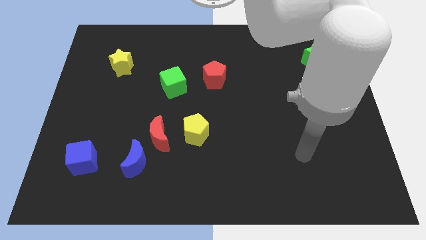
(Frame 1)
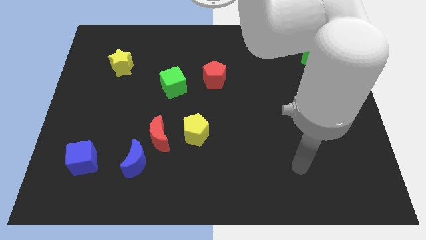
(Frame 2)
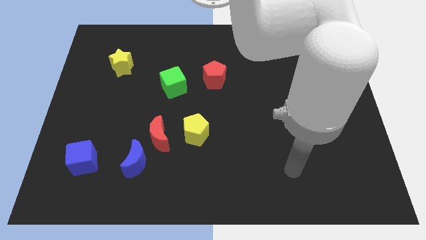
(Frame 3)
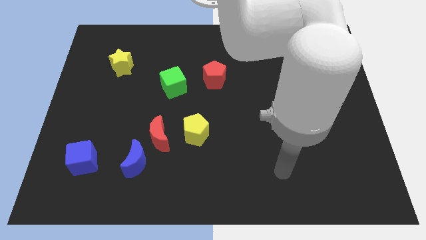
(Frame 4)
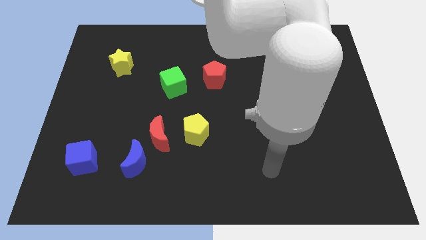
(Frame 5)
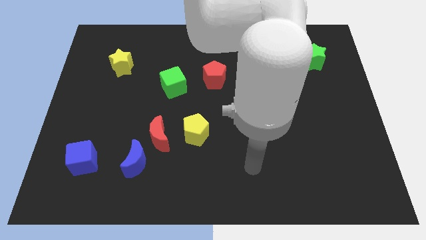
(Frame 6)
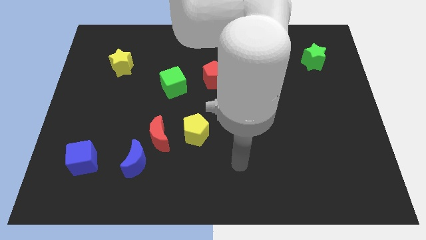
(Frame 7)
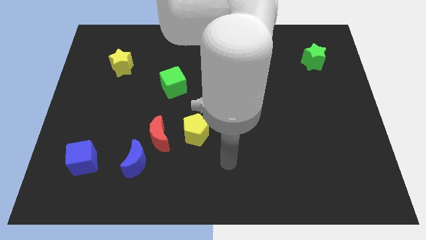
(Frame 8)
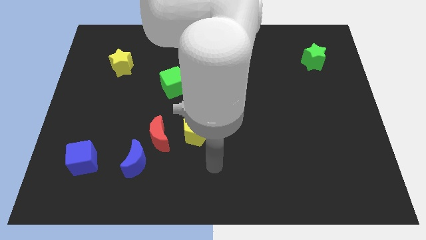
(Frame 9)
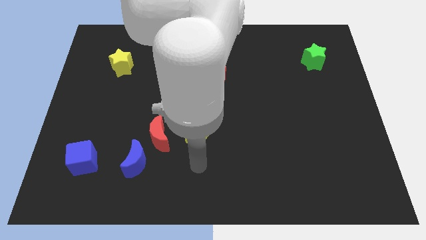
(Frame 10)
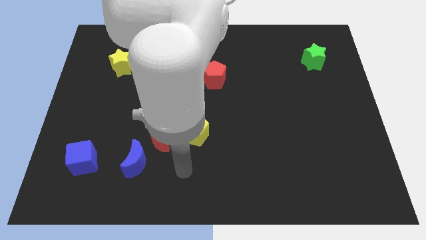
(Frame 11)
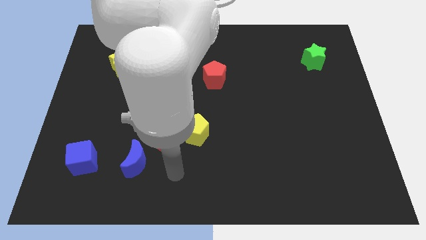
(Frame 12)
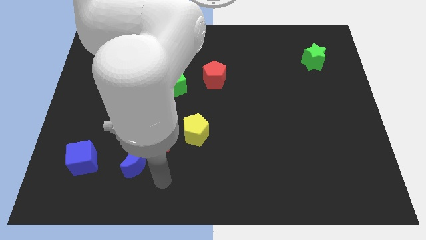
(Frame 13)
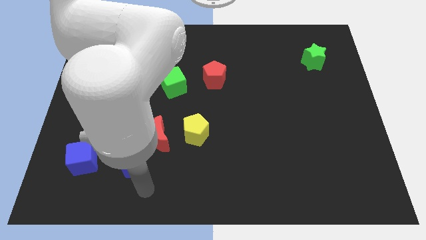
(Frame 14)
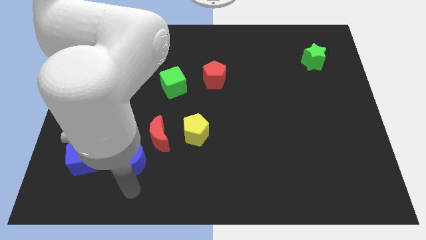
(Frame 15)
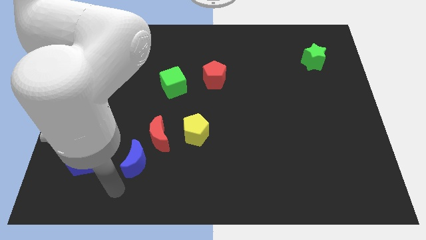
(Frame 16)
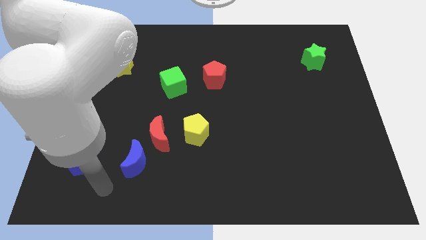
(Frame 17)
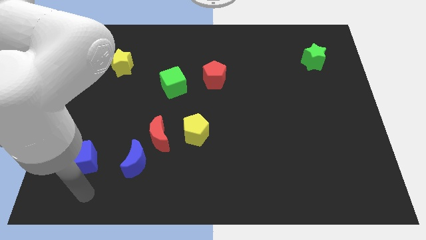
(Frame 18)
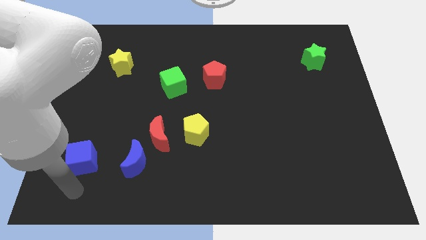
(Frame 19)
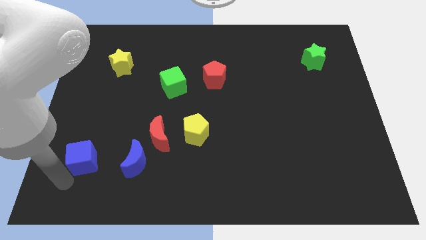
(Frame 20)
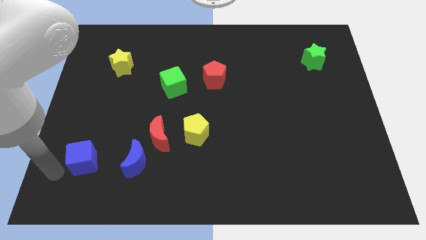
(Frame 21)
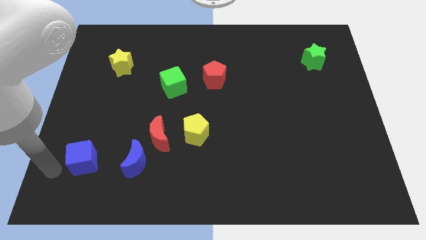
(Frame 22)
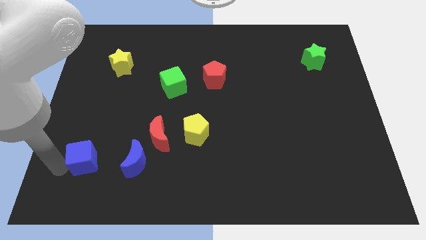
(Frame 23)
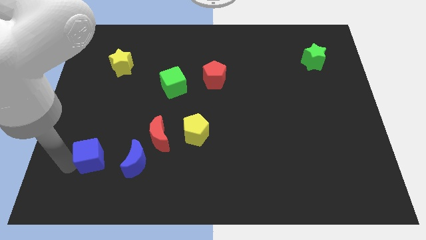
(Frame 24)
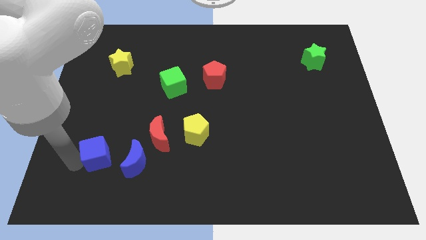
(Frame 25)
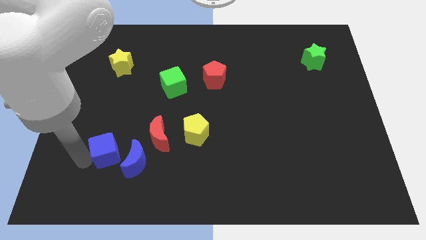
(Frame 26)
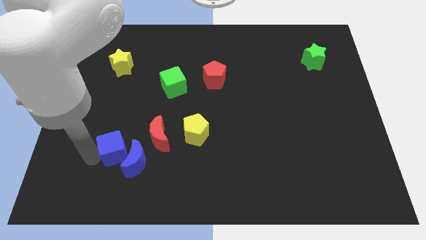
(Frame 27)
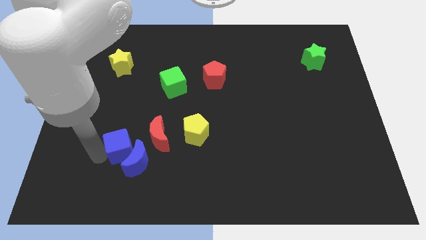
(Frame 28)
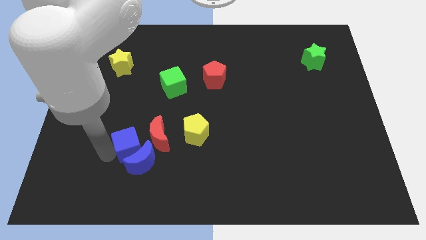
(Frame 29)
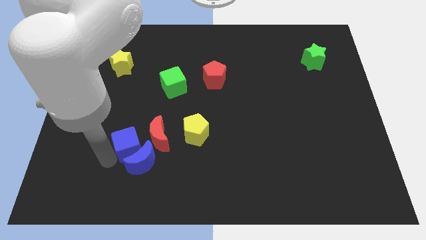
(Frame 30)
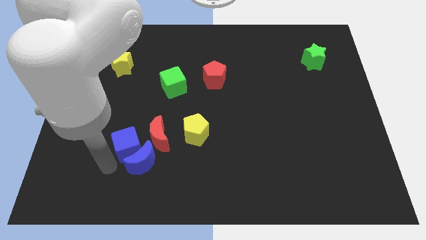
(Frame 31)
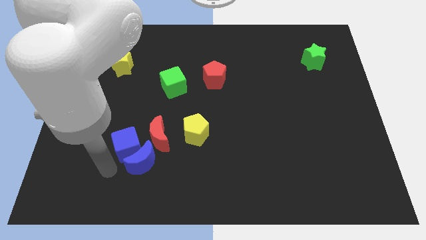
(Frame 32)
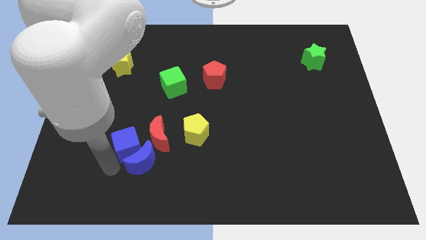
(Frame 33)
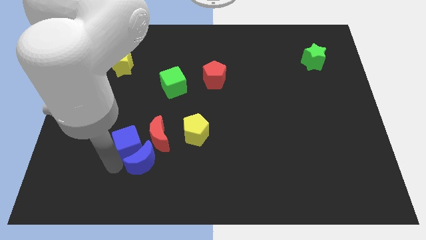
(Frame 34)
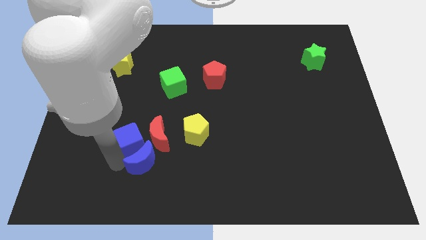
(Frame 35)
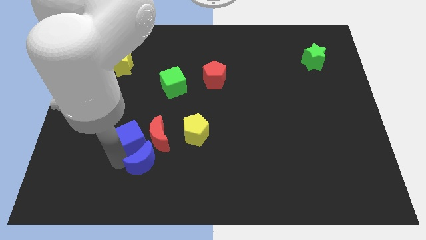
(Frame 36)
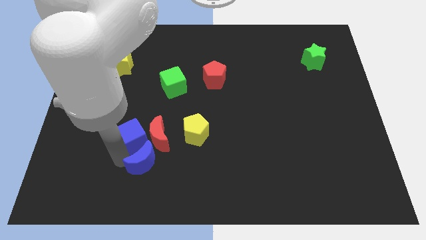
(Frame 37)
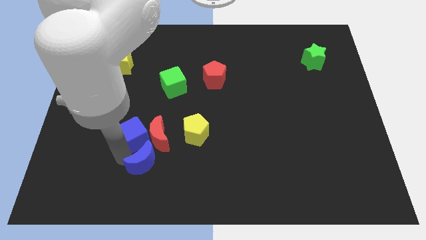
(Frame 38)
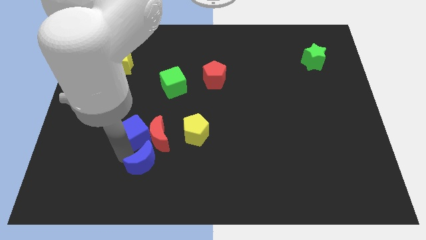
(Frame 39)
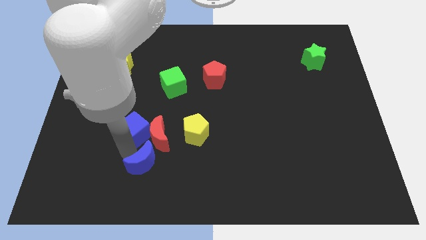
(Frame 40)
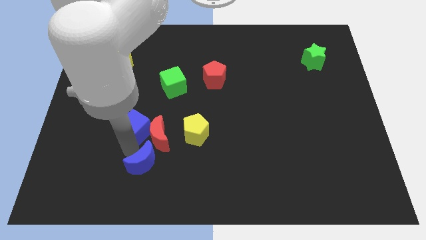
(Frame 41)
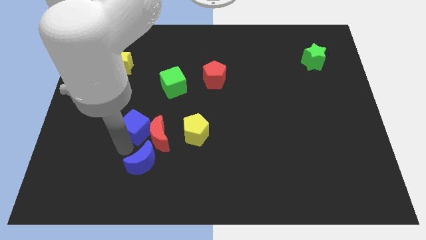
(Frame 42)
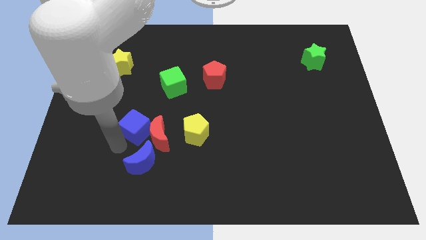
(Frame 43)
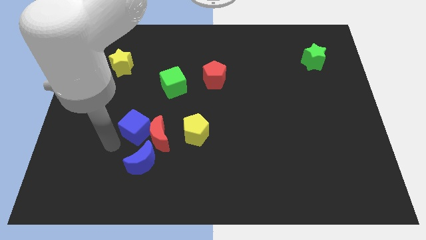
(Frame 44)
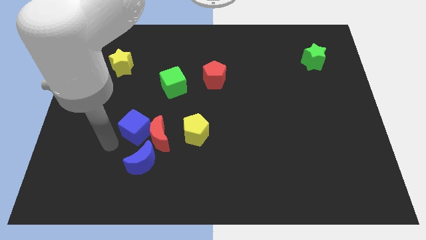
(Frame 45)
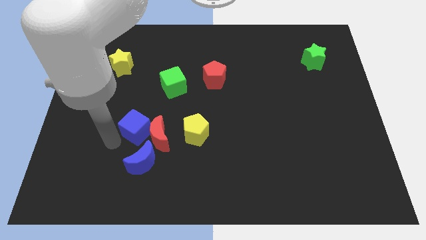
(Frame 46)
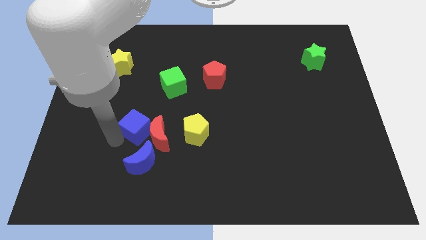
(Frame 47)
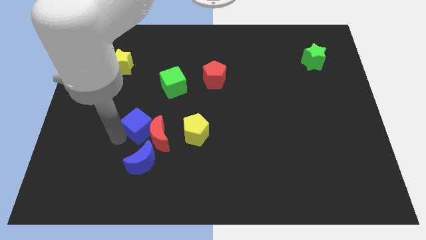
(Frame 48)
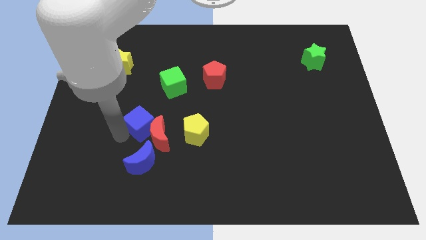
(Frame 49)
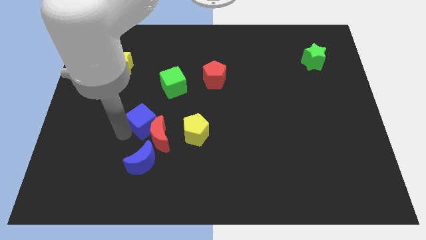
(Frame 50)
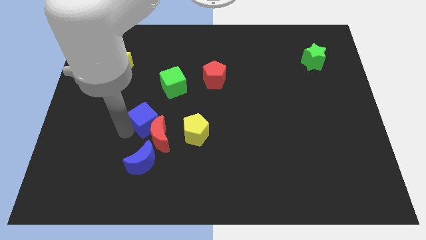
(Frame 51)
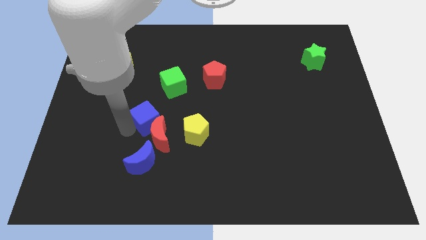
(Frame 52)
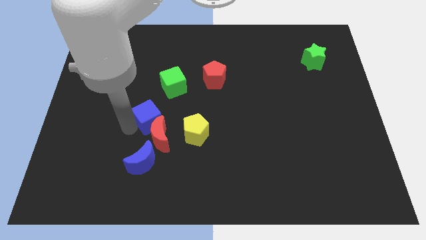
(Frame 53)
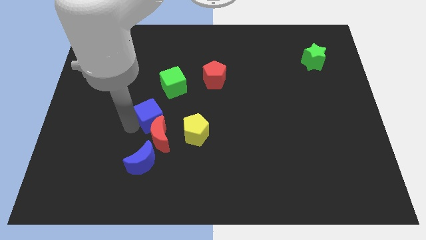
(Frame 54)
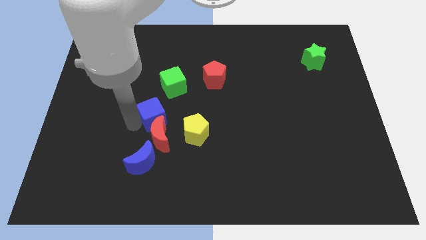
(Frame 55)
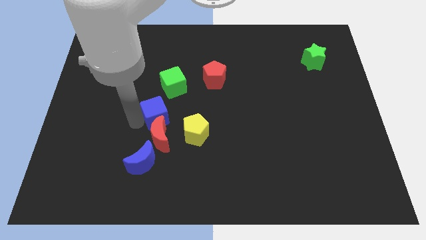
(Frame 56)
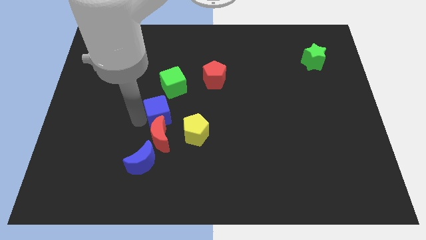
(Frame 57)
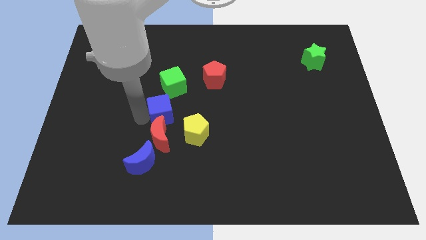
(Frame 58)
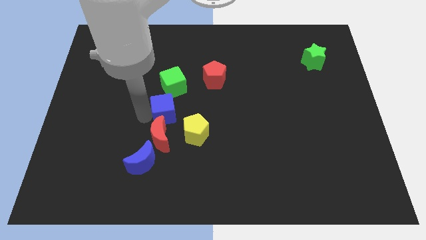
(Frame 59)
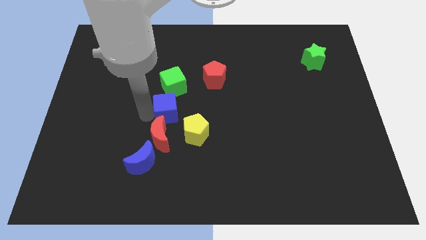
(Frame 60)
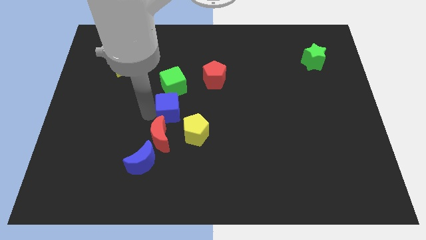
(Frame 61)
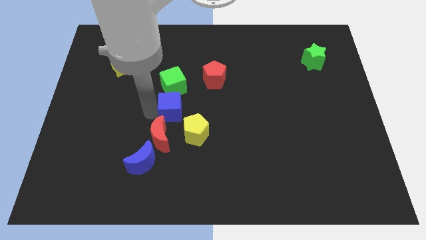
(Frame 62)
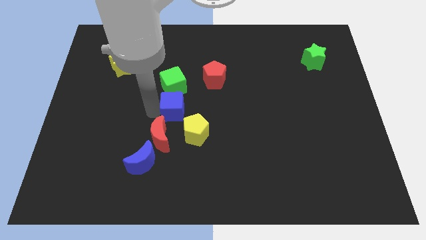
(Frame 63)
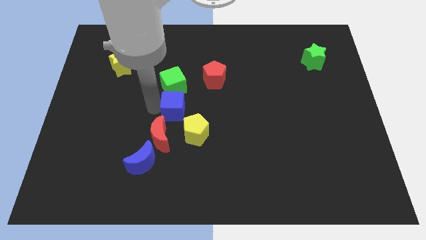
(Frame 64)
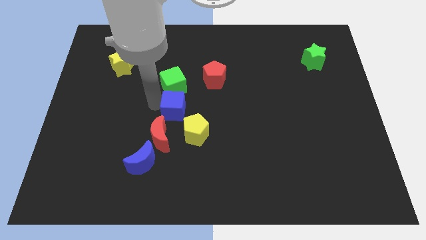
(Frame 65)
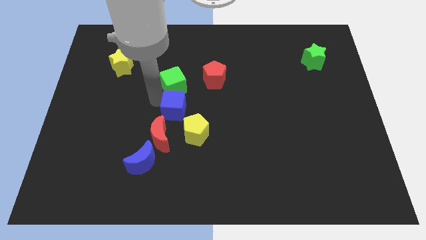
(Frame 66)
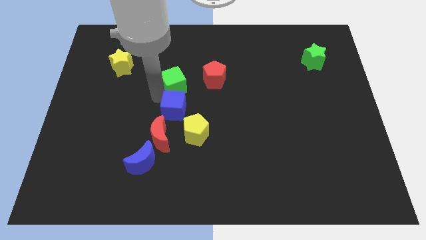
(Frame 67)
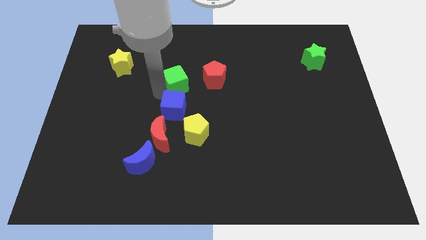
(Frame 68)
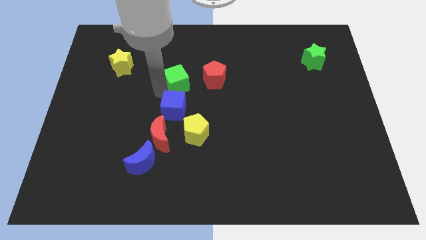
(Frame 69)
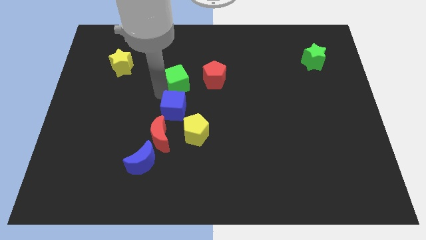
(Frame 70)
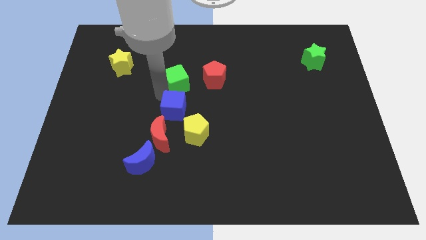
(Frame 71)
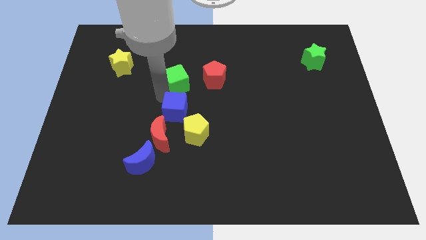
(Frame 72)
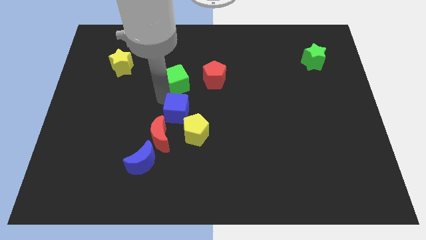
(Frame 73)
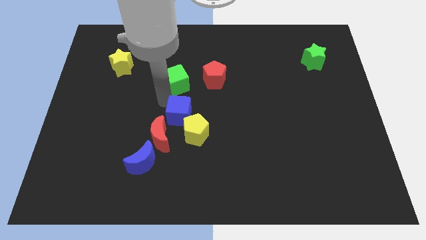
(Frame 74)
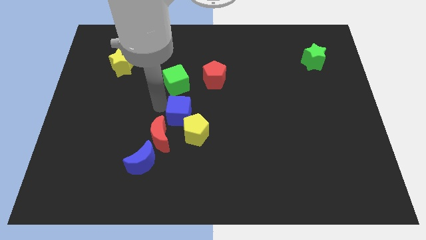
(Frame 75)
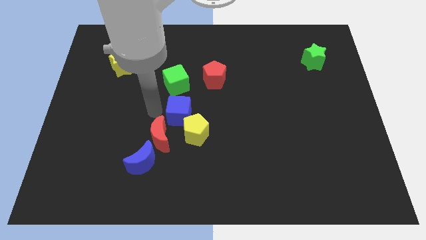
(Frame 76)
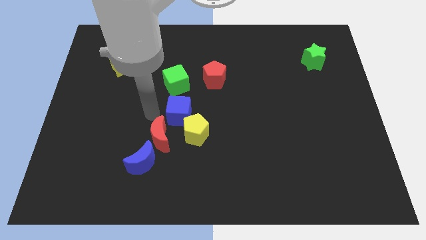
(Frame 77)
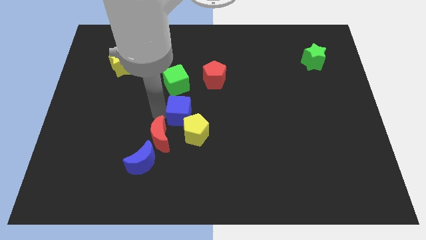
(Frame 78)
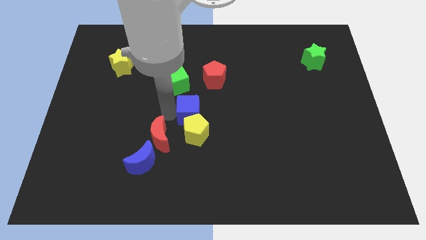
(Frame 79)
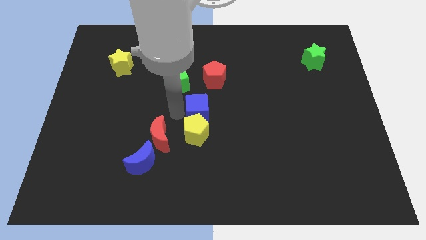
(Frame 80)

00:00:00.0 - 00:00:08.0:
push the blue cube to the top right of the yellow pentagon
